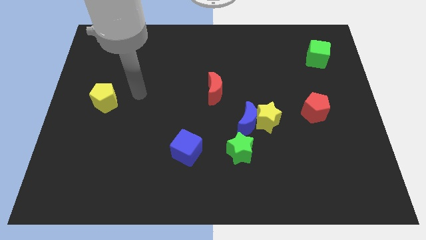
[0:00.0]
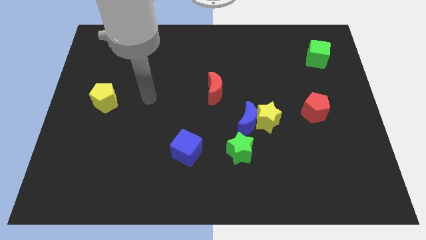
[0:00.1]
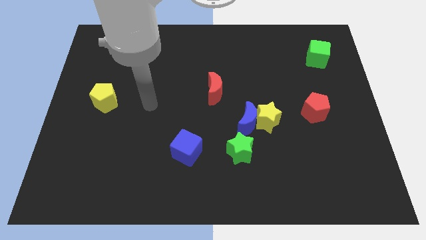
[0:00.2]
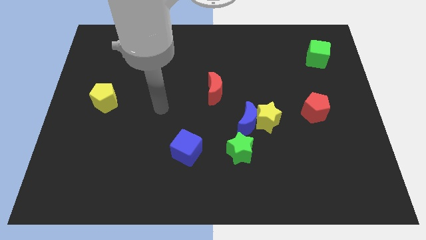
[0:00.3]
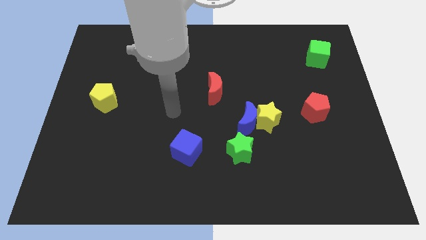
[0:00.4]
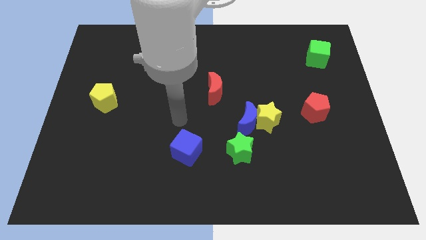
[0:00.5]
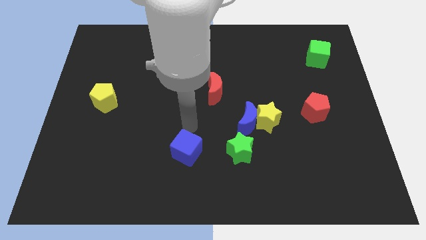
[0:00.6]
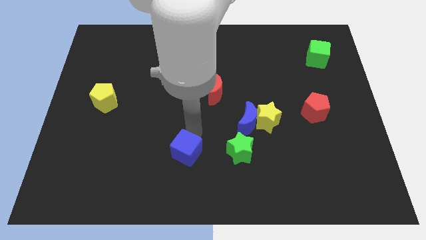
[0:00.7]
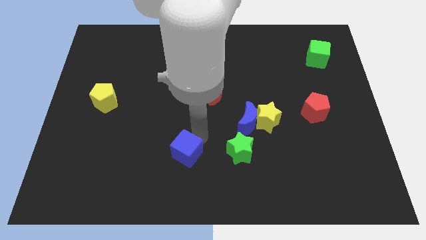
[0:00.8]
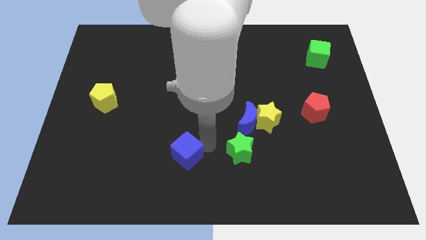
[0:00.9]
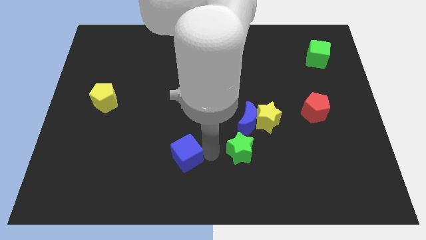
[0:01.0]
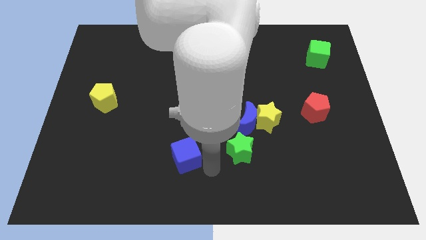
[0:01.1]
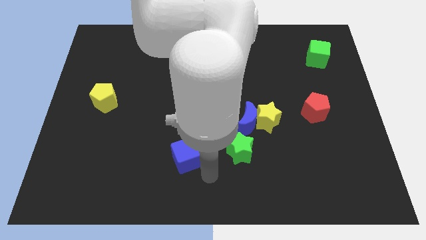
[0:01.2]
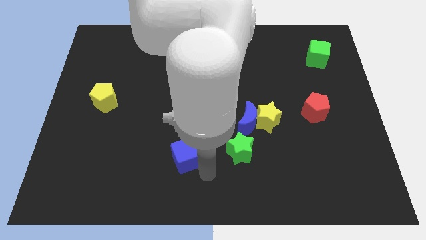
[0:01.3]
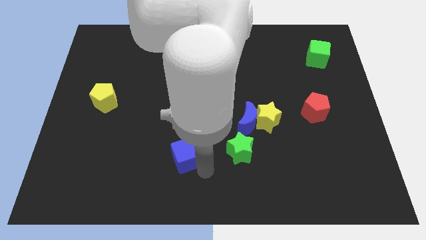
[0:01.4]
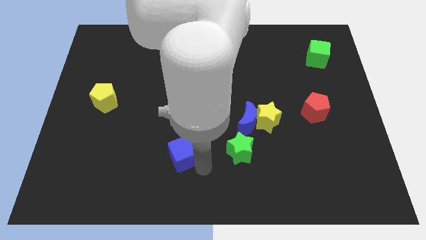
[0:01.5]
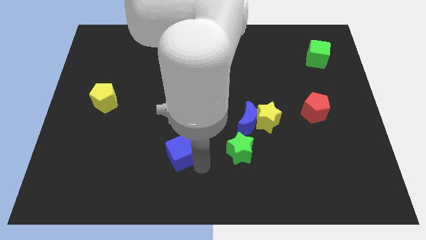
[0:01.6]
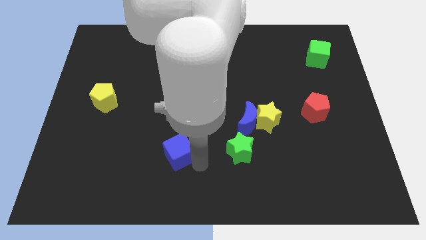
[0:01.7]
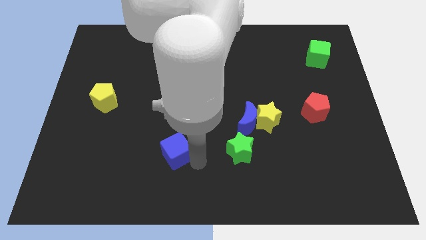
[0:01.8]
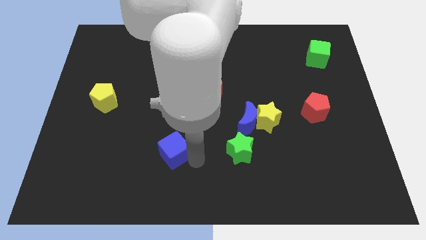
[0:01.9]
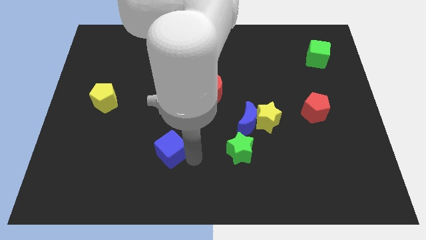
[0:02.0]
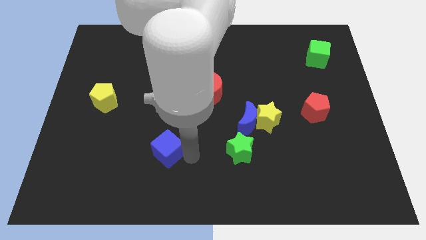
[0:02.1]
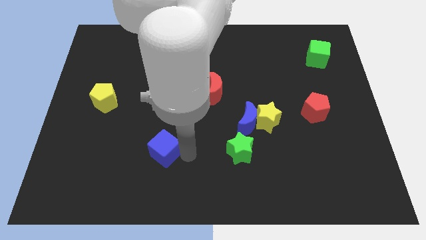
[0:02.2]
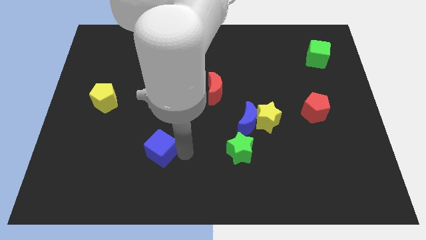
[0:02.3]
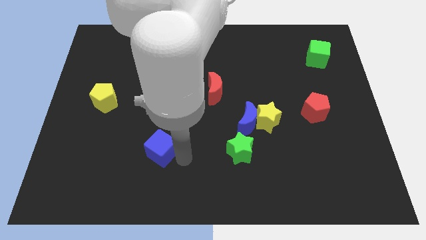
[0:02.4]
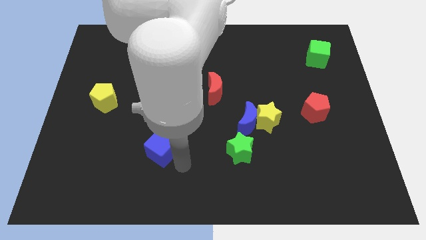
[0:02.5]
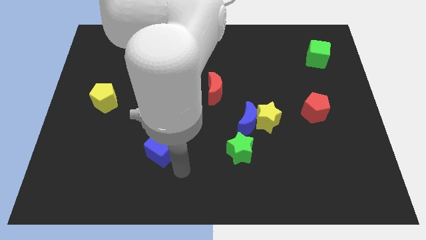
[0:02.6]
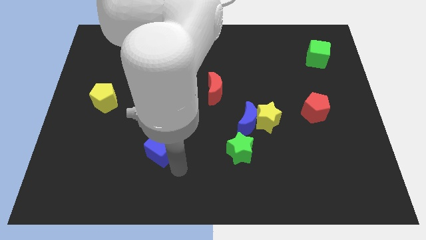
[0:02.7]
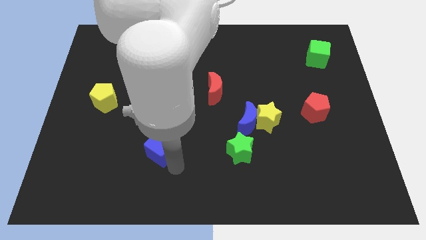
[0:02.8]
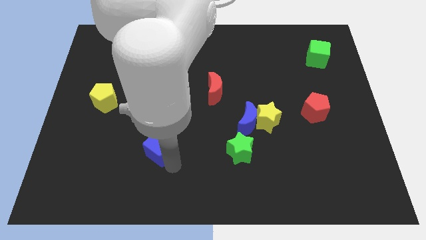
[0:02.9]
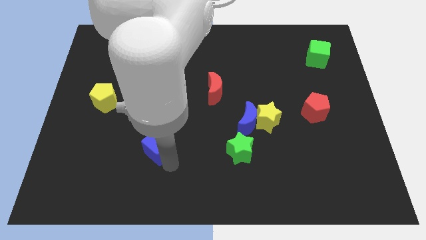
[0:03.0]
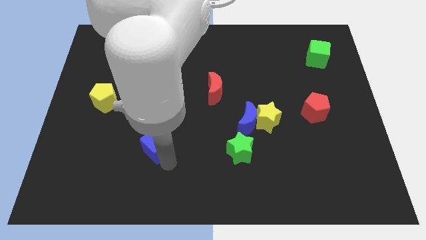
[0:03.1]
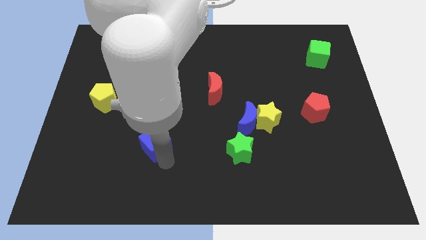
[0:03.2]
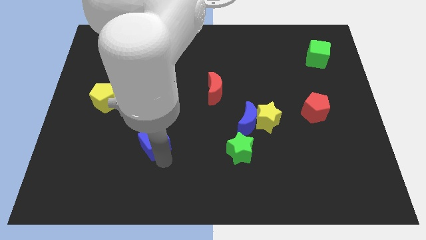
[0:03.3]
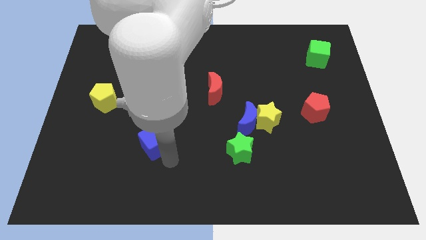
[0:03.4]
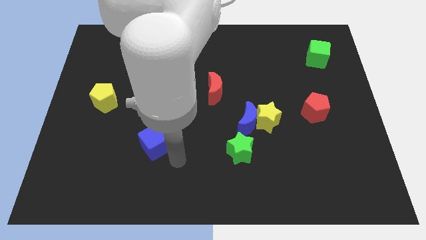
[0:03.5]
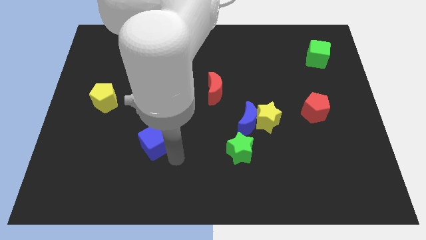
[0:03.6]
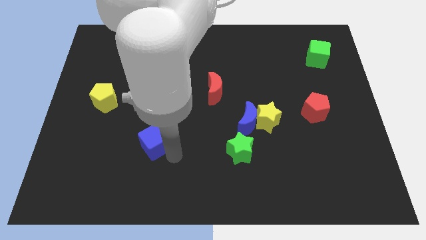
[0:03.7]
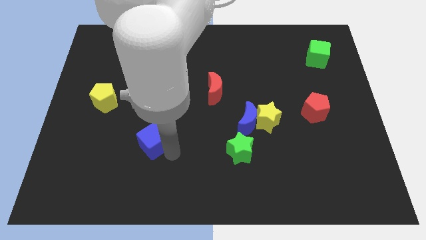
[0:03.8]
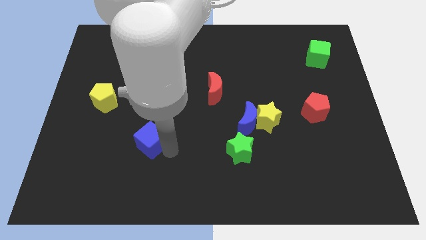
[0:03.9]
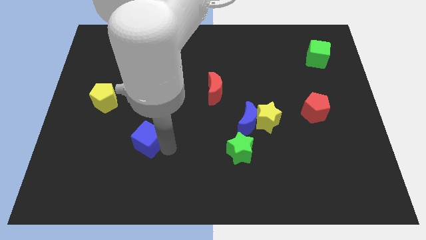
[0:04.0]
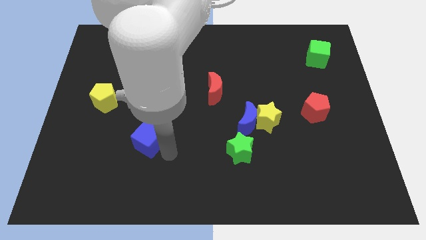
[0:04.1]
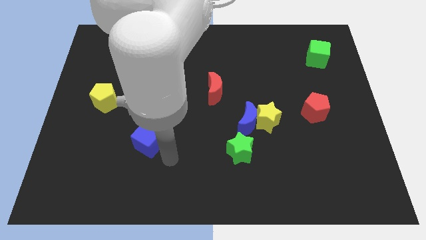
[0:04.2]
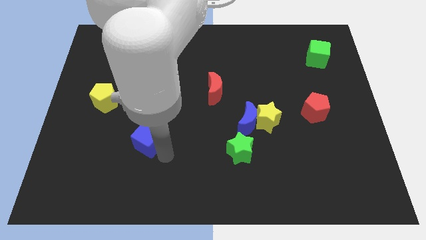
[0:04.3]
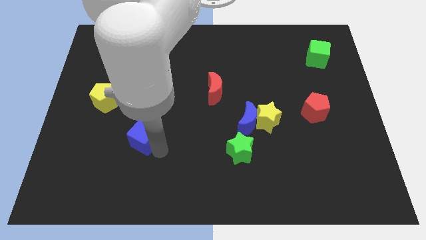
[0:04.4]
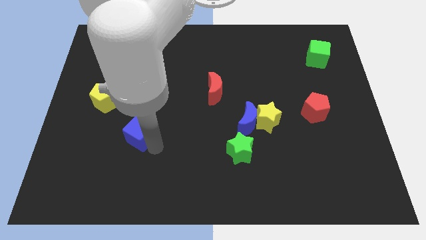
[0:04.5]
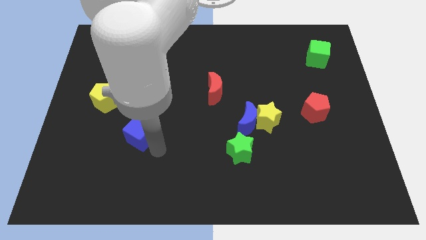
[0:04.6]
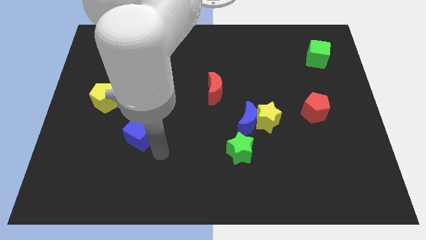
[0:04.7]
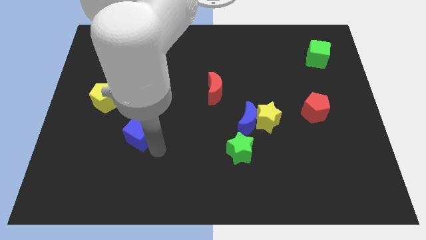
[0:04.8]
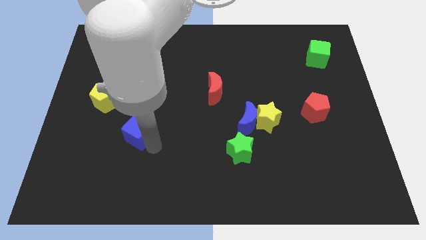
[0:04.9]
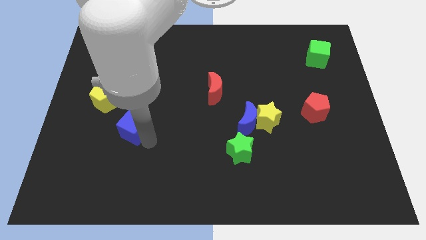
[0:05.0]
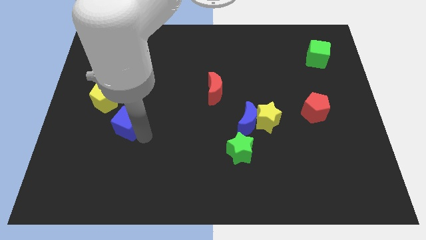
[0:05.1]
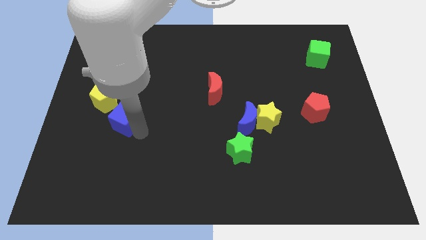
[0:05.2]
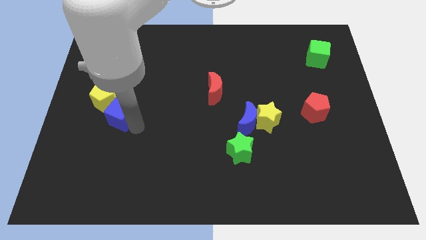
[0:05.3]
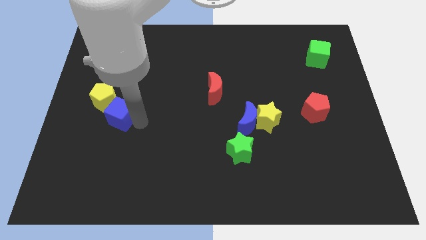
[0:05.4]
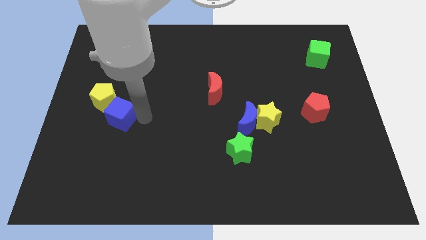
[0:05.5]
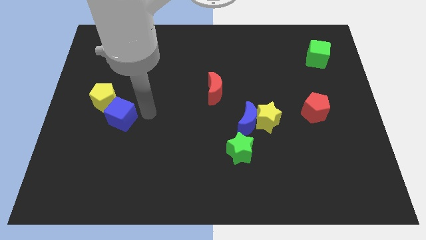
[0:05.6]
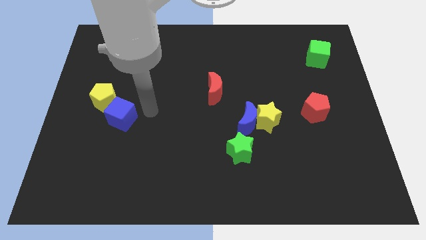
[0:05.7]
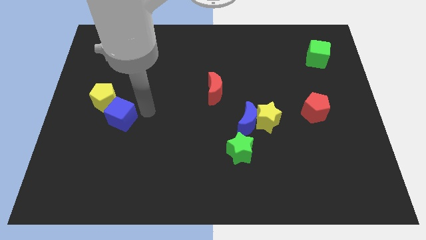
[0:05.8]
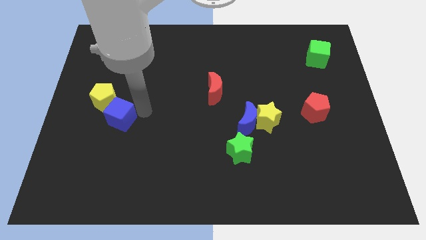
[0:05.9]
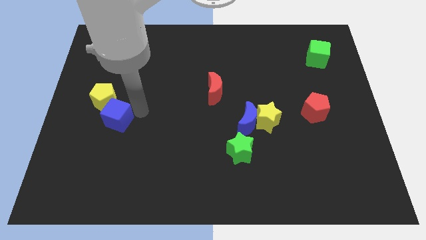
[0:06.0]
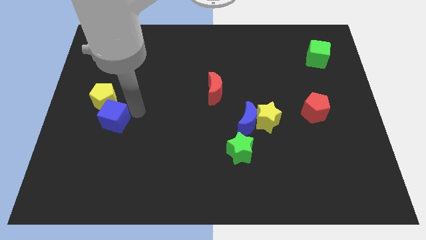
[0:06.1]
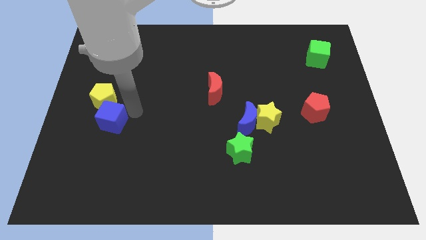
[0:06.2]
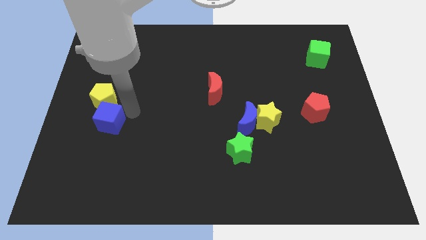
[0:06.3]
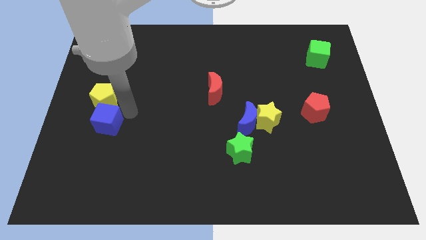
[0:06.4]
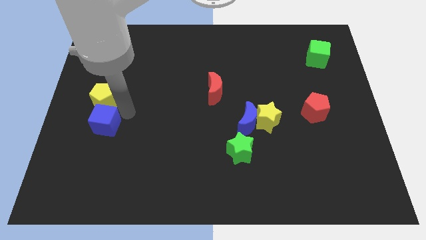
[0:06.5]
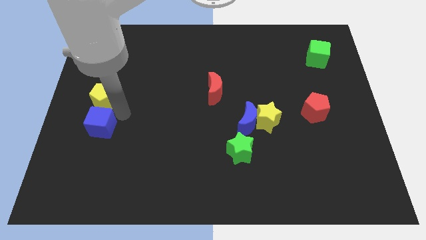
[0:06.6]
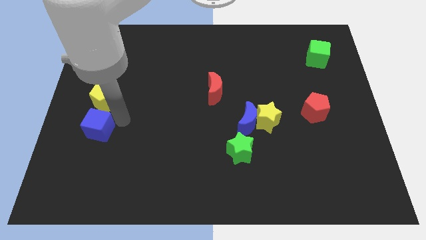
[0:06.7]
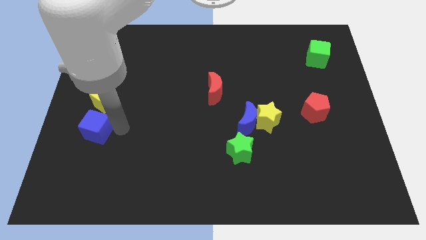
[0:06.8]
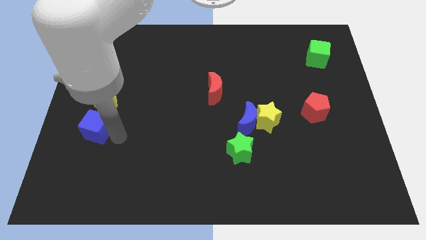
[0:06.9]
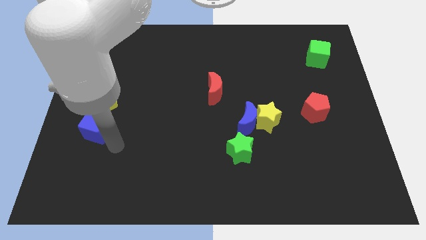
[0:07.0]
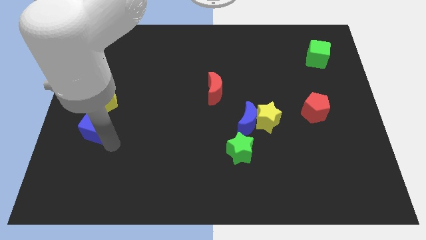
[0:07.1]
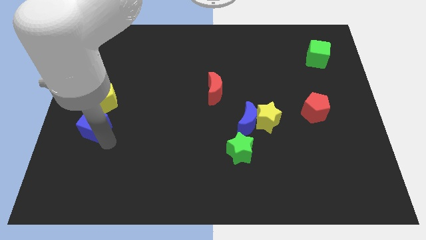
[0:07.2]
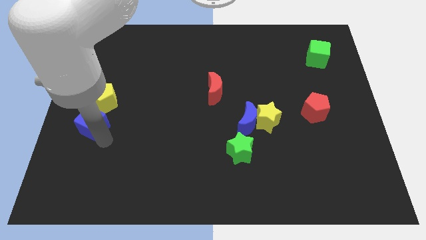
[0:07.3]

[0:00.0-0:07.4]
move the blue cube to the left side
